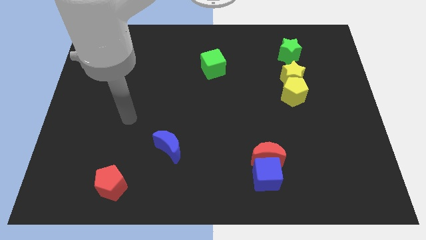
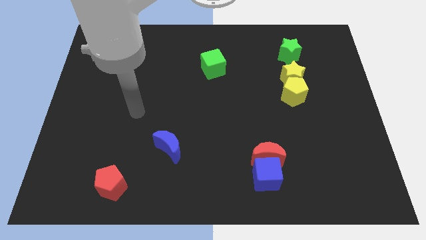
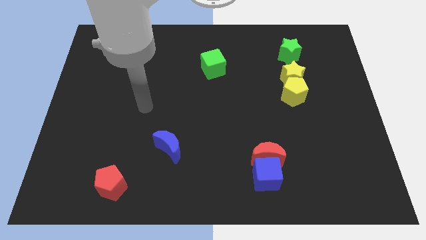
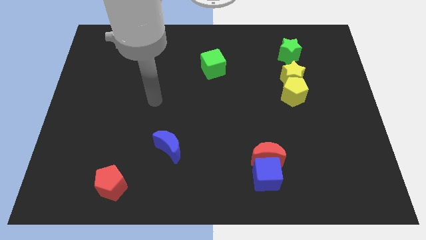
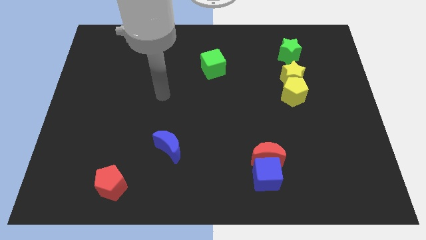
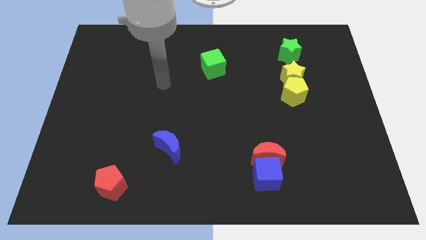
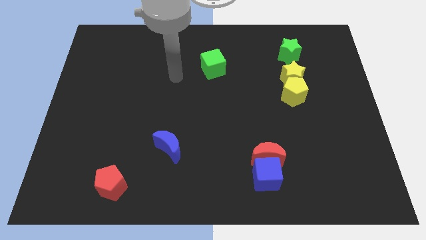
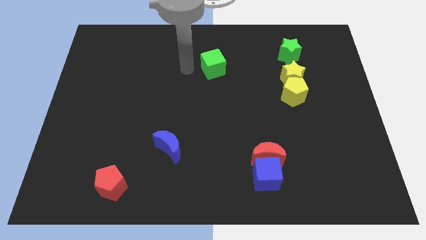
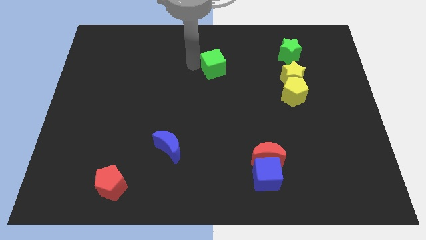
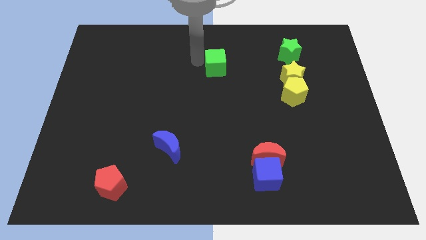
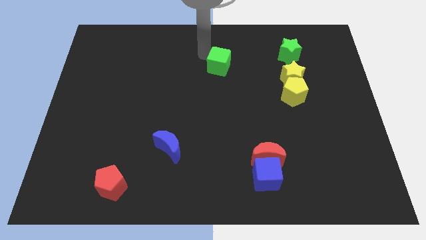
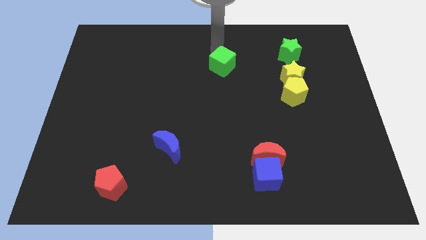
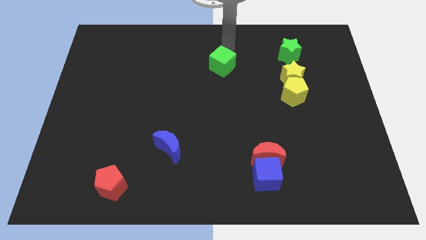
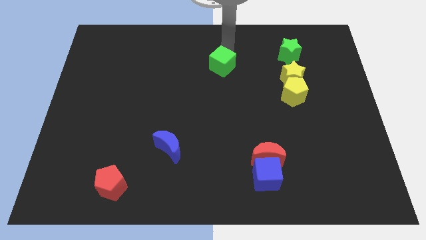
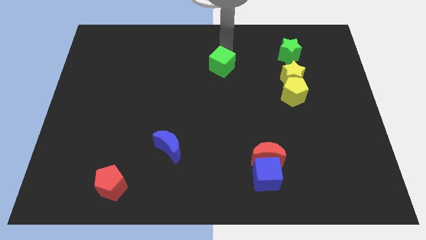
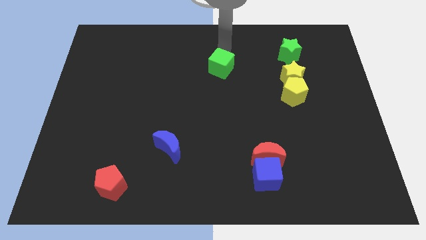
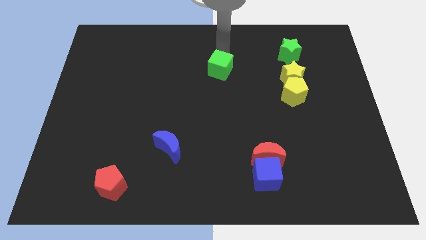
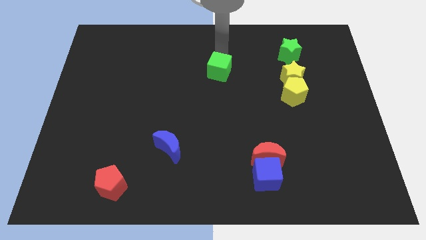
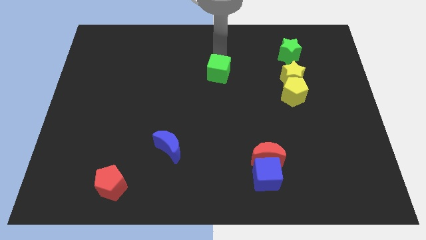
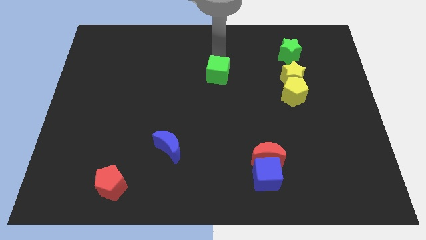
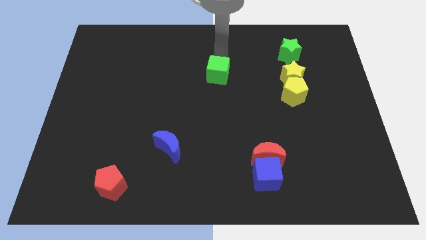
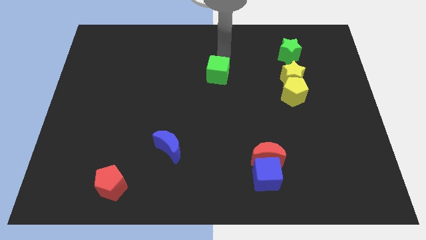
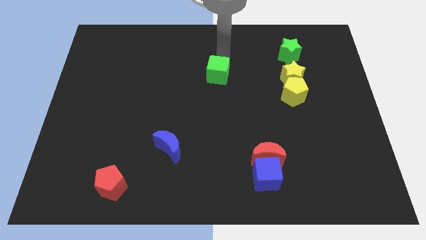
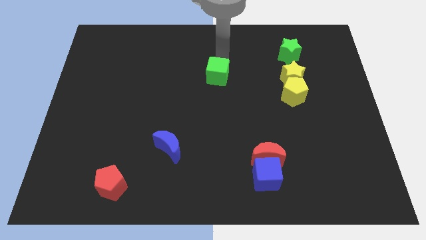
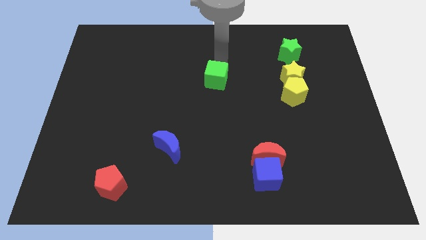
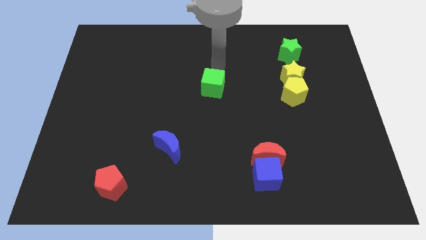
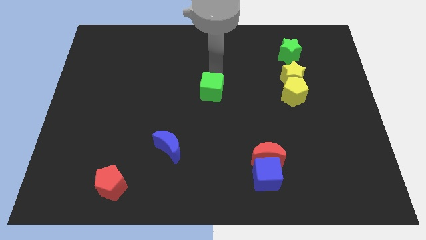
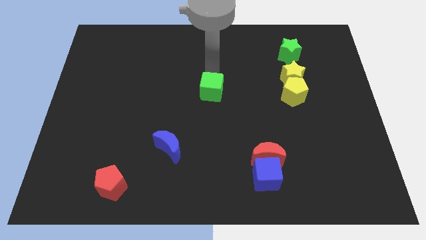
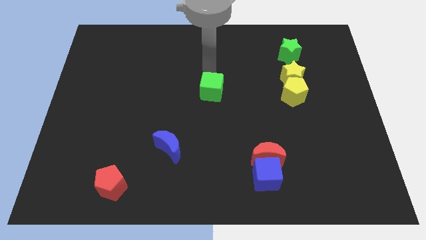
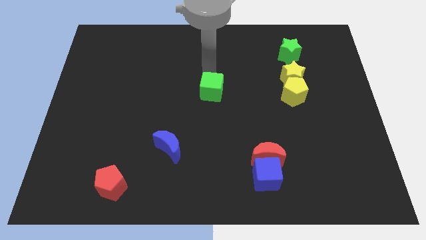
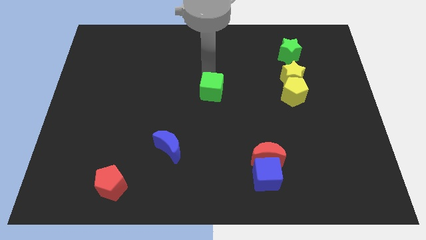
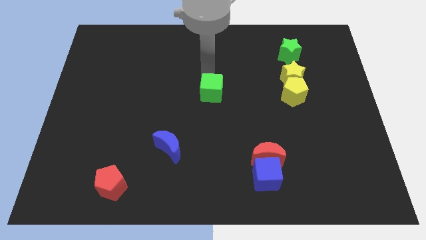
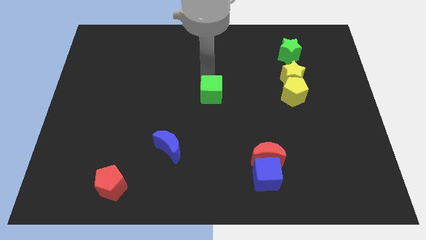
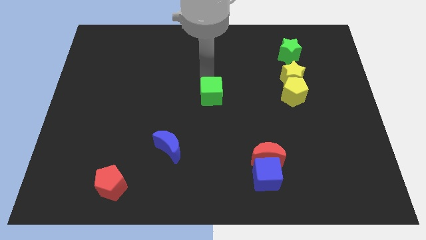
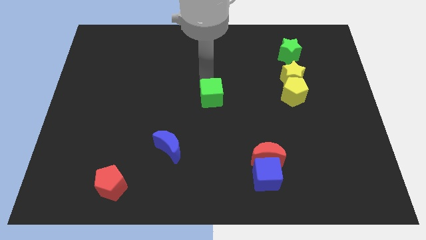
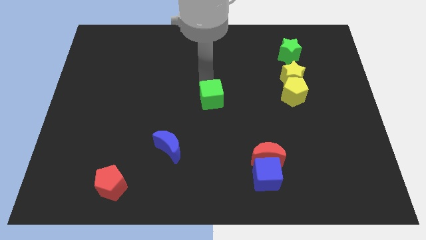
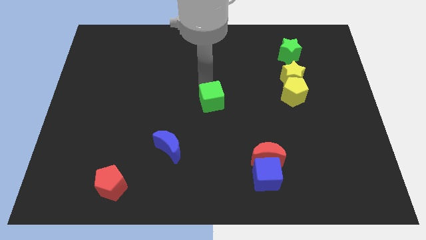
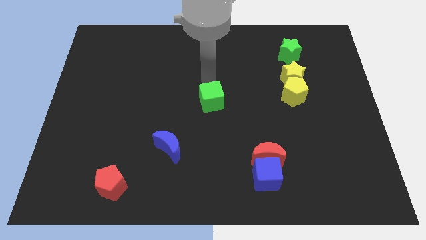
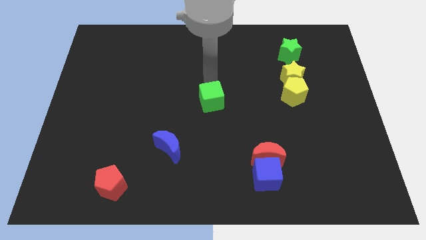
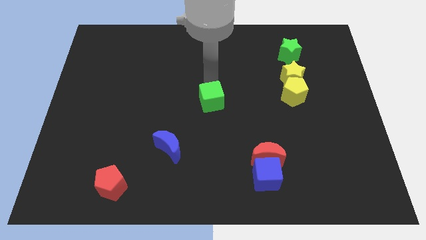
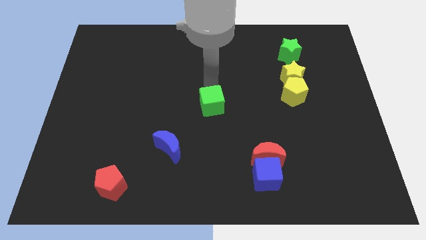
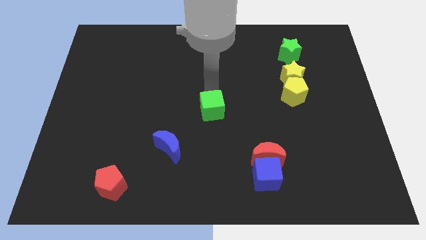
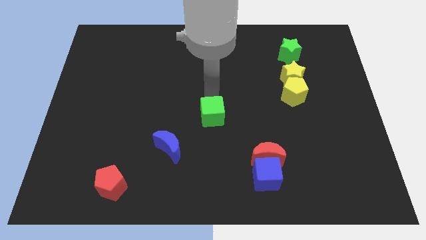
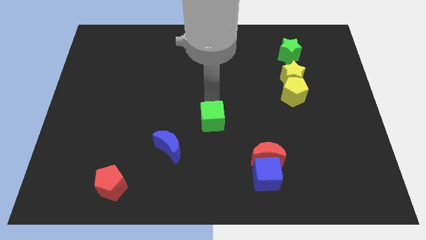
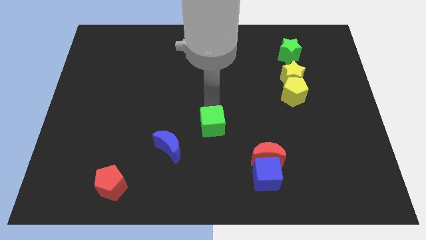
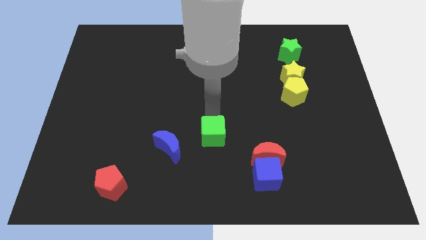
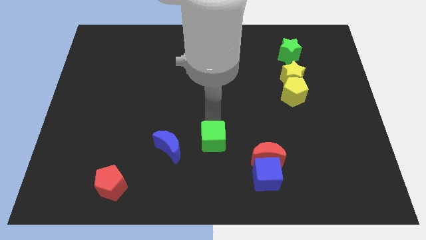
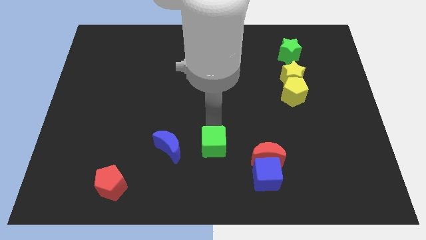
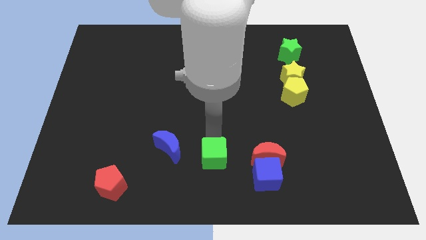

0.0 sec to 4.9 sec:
move the green cube left of the blue cube

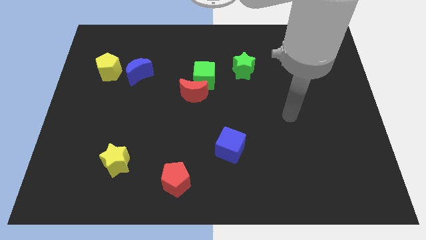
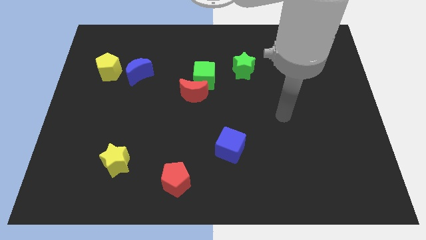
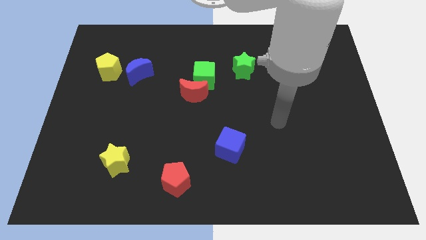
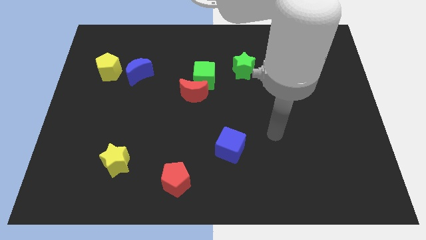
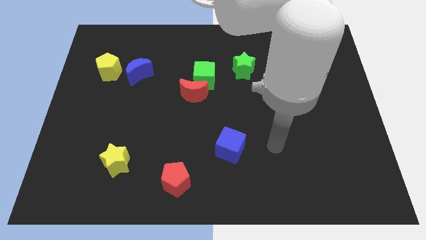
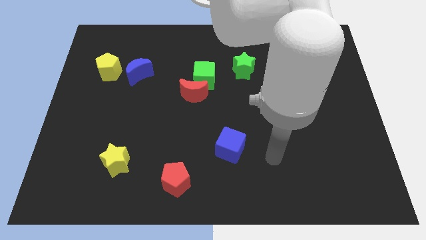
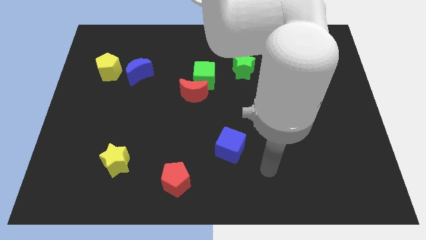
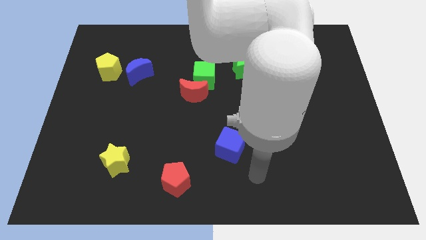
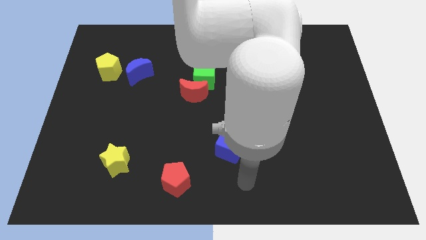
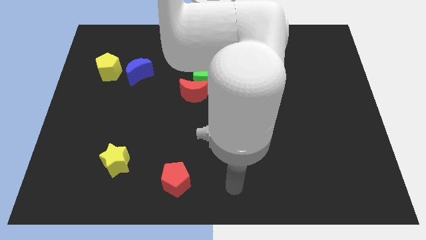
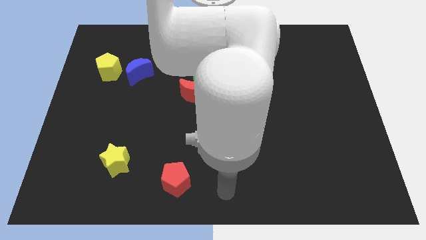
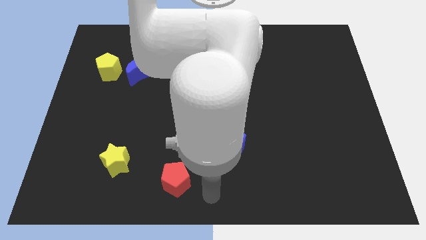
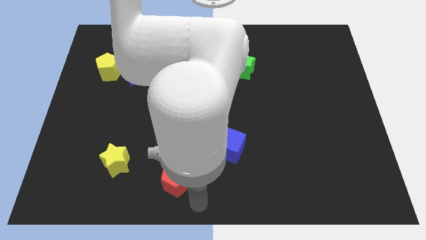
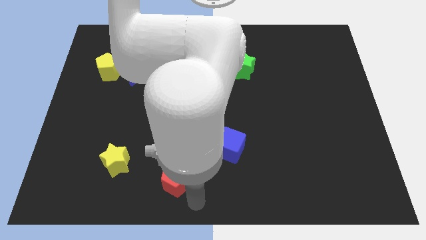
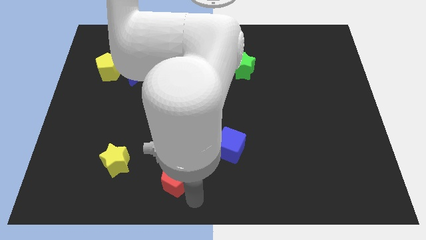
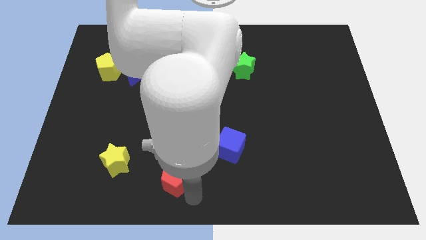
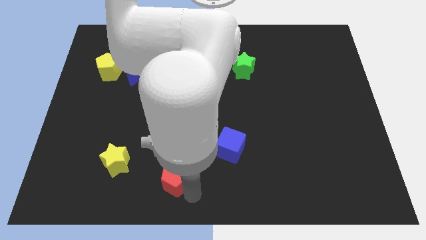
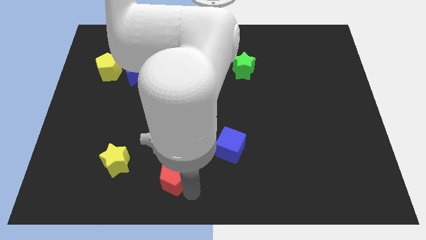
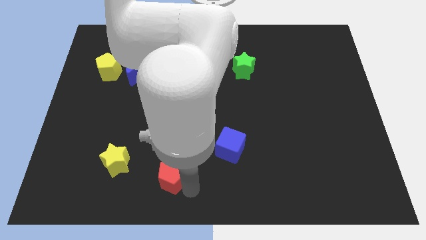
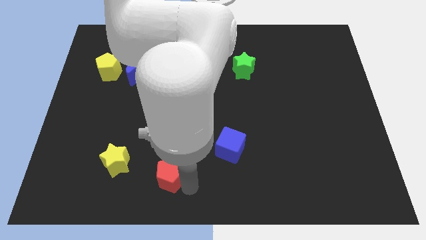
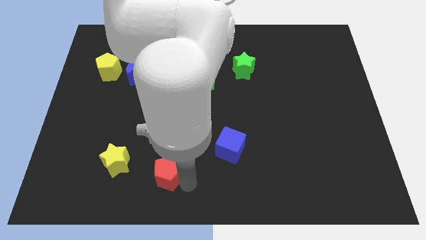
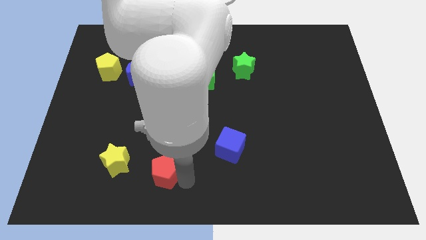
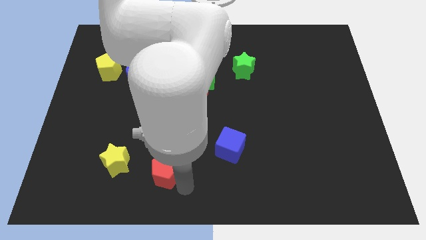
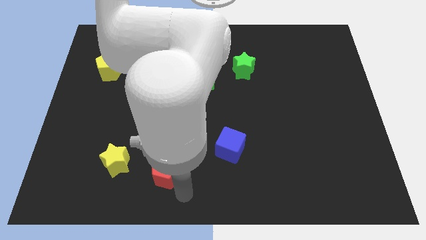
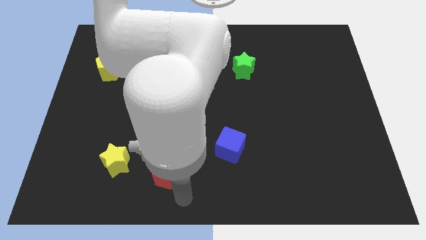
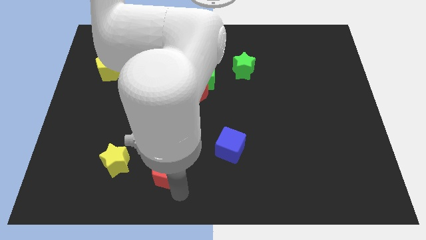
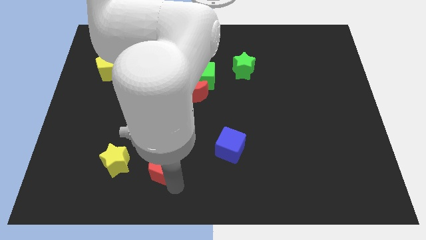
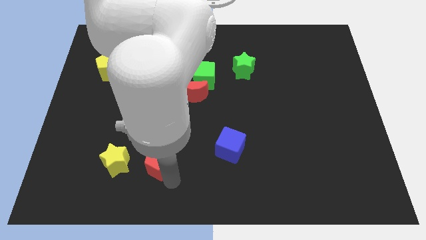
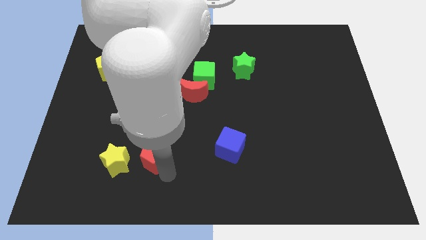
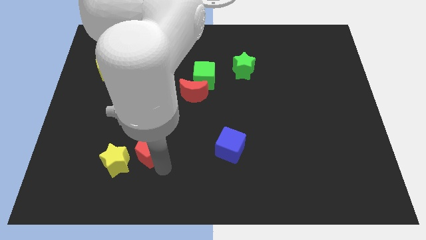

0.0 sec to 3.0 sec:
move the red pentagon diagonally up and to the right of the yellow star
